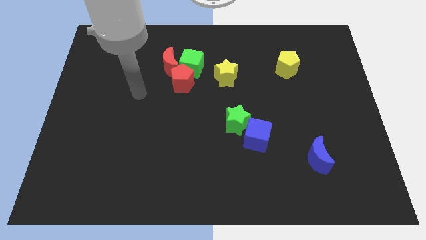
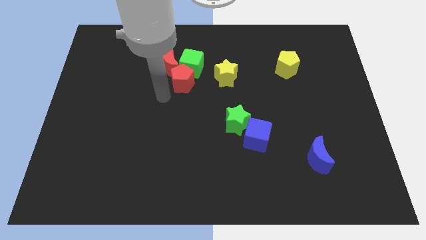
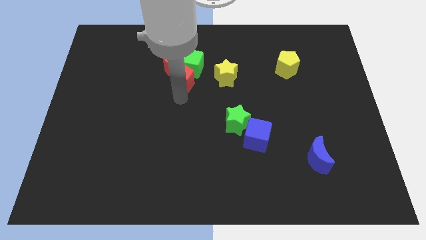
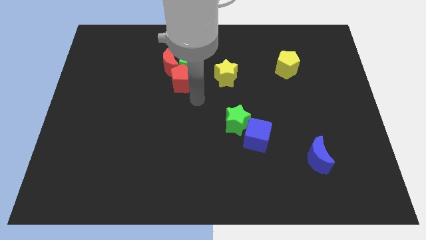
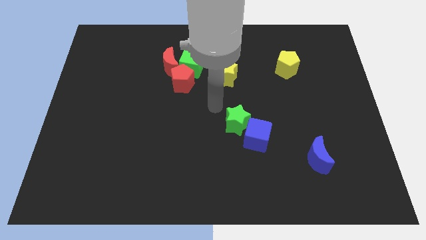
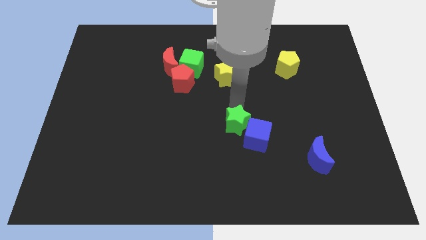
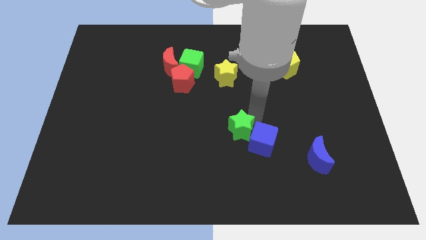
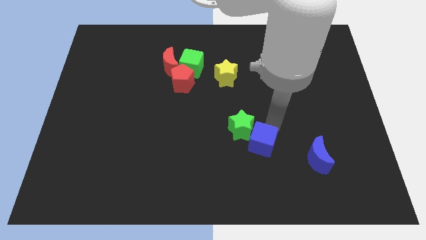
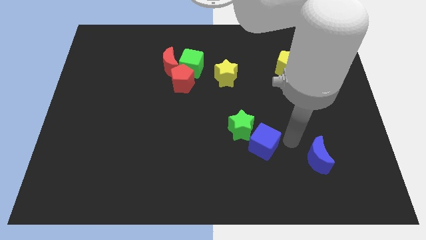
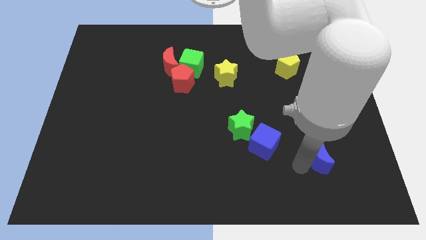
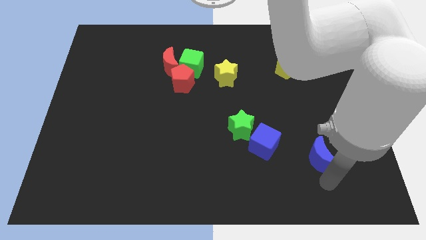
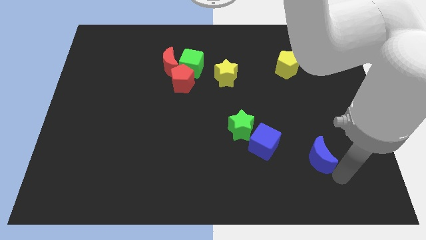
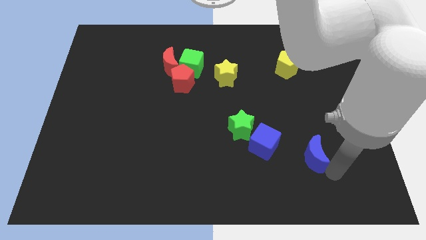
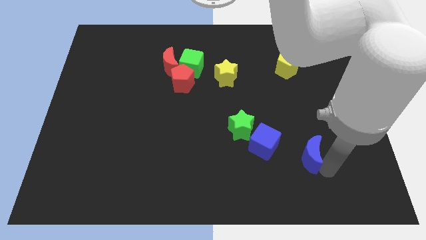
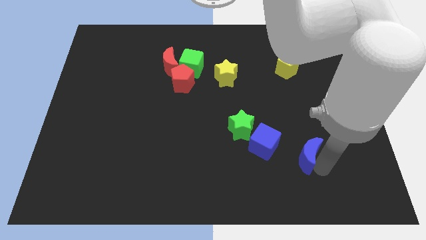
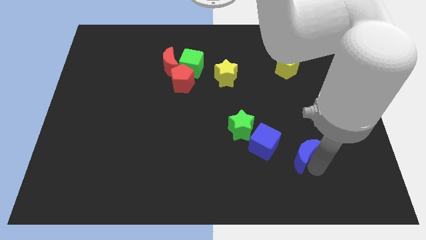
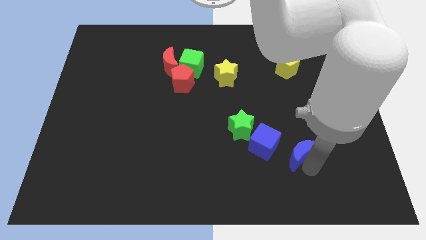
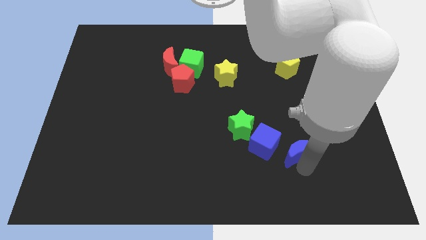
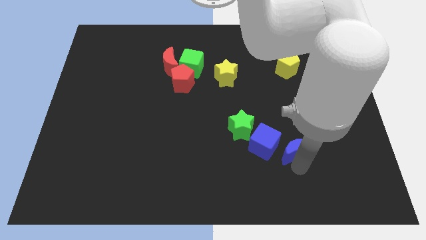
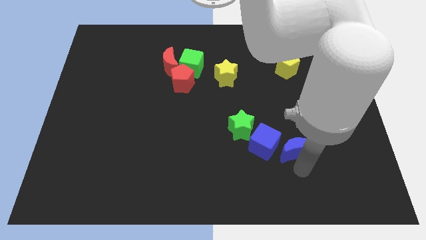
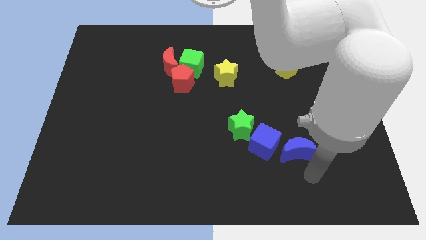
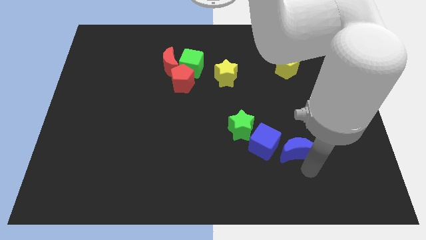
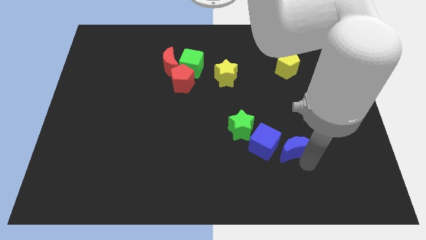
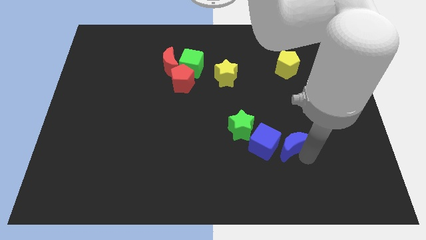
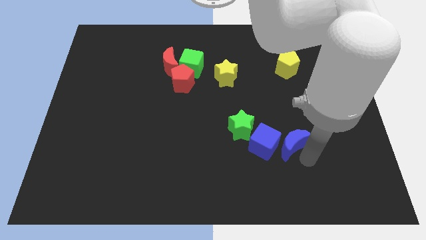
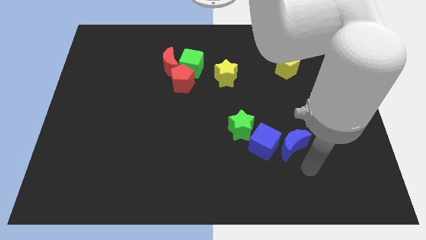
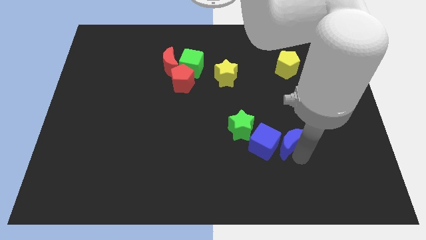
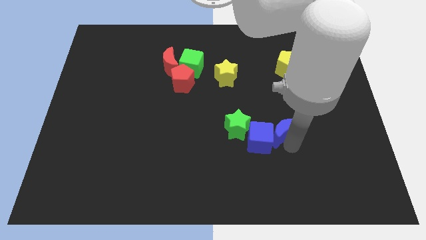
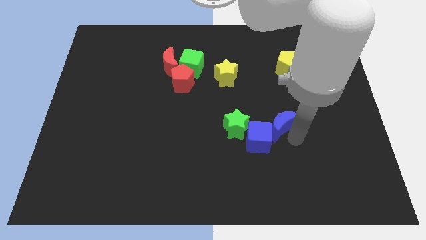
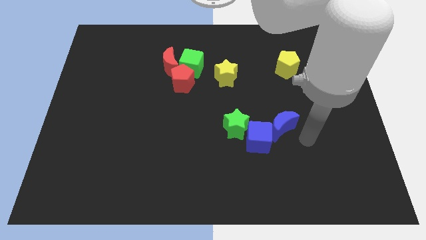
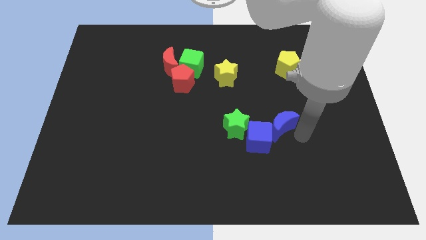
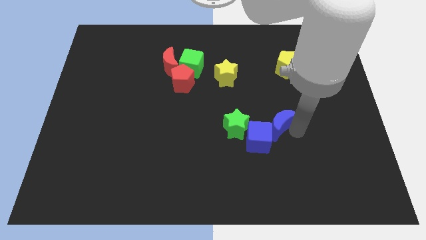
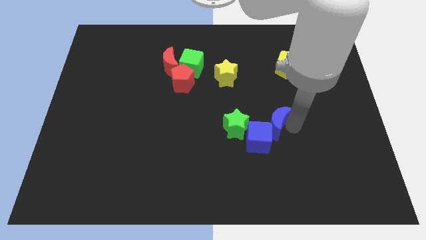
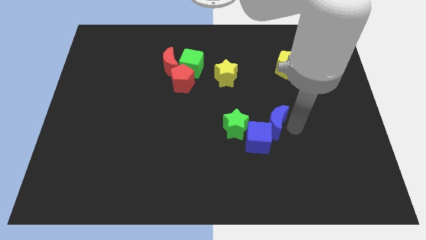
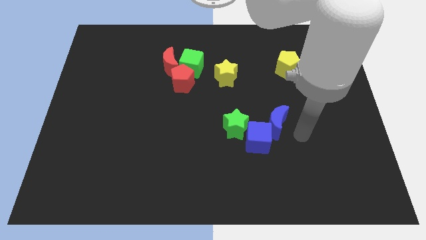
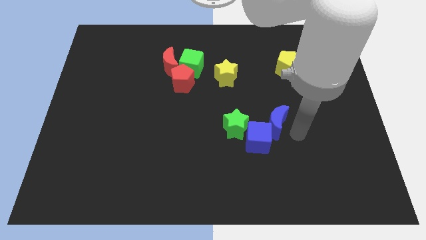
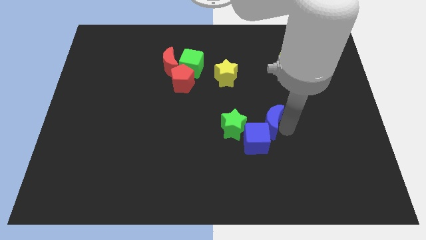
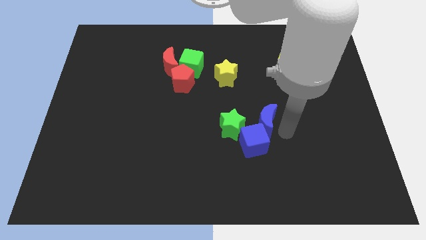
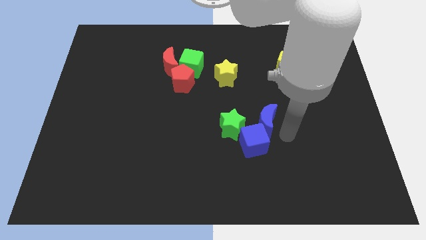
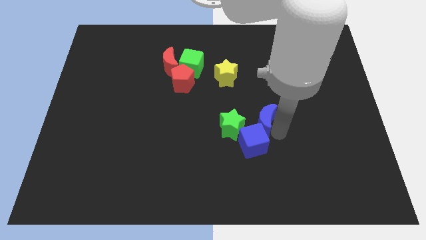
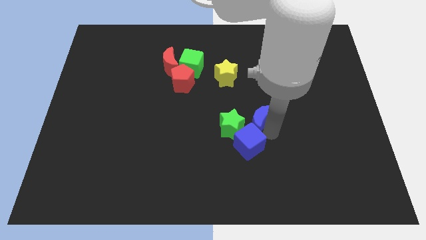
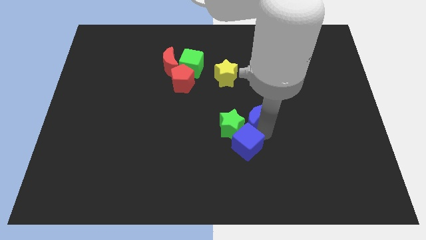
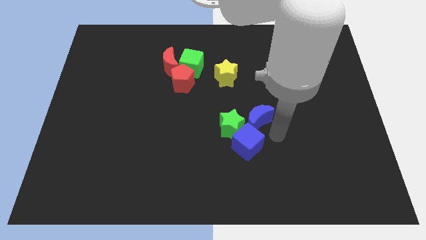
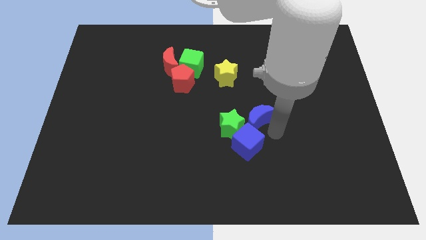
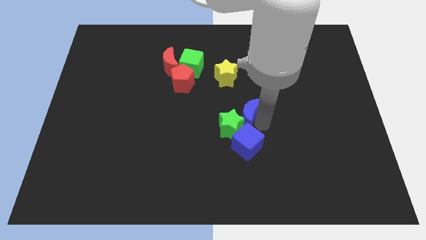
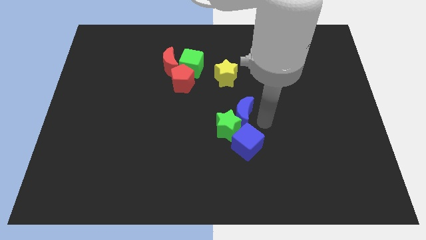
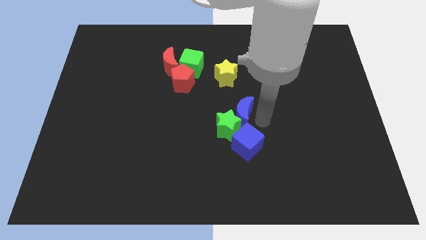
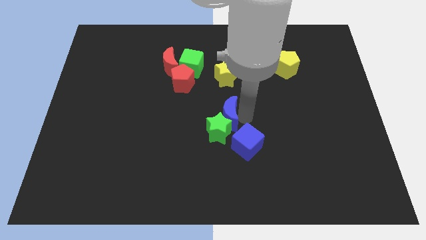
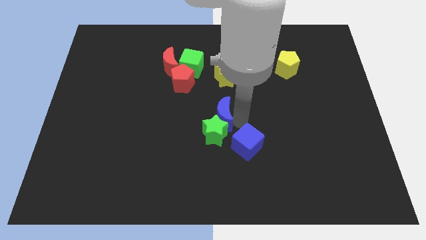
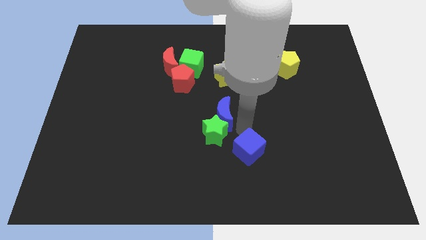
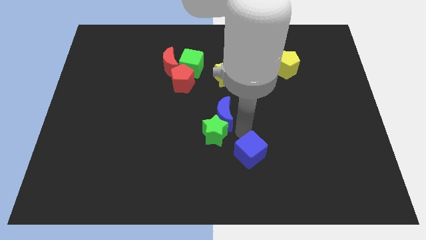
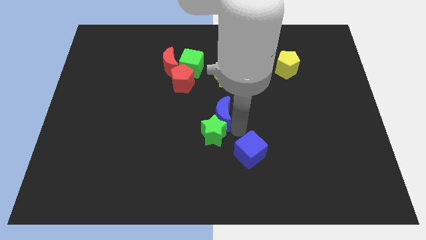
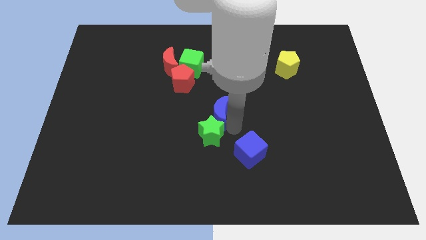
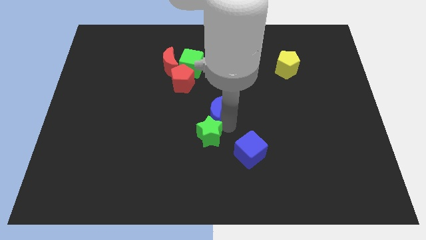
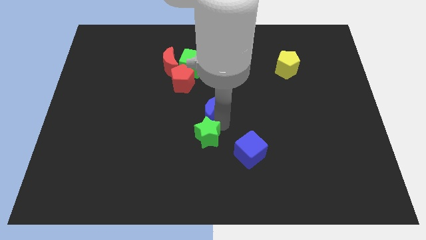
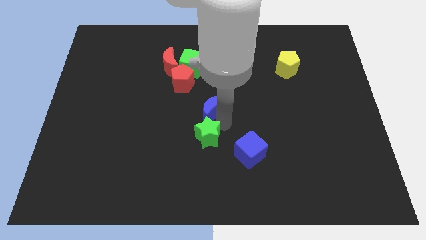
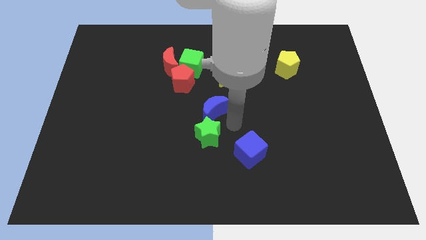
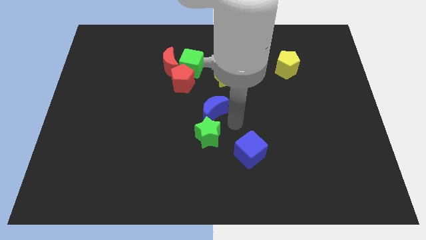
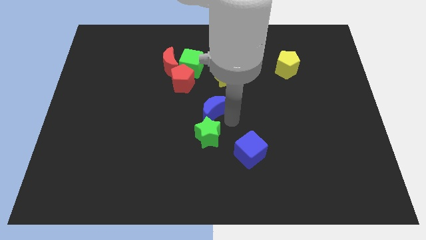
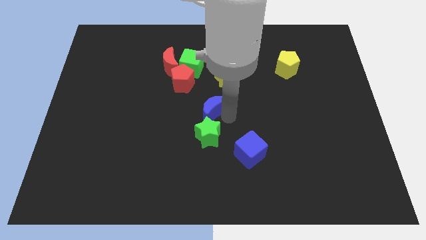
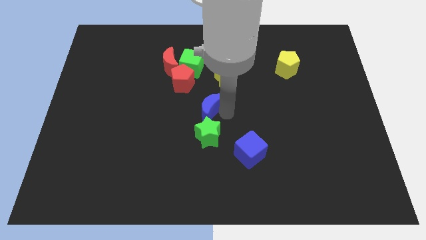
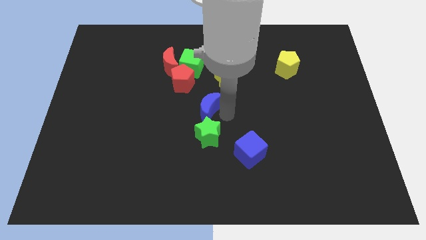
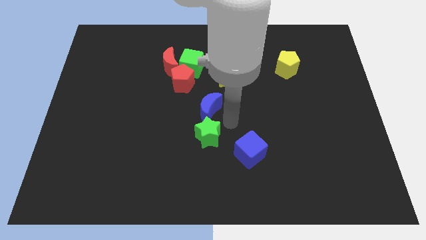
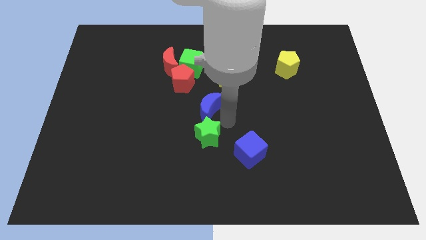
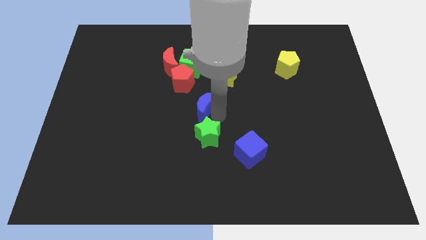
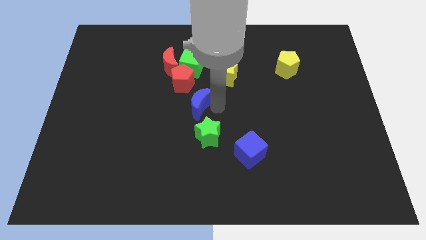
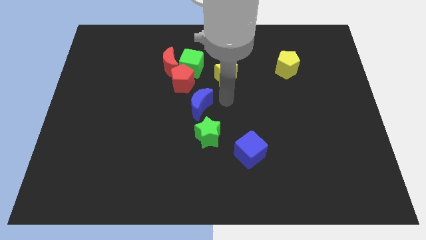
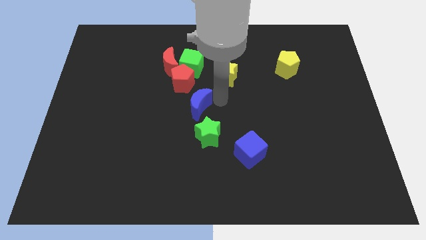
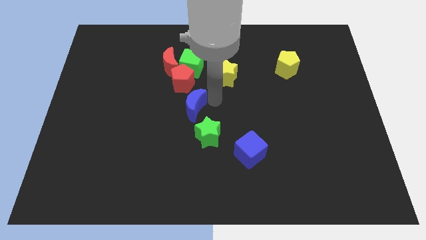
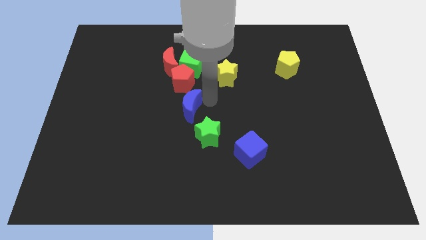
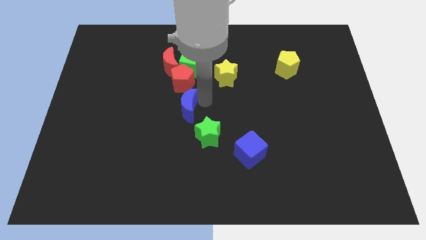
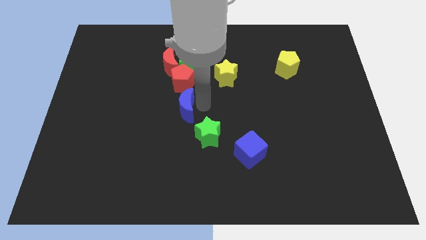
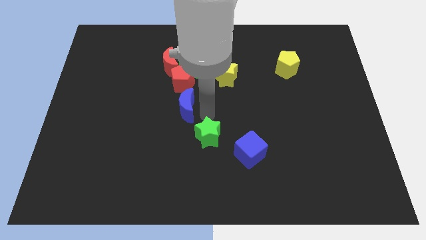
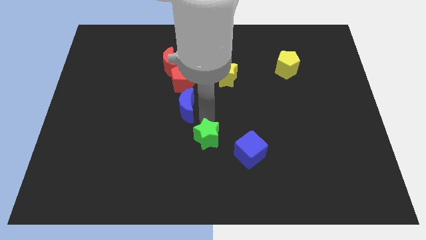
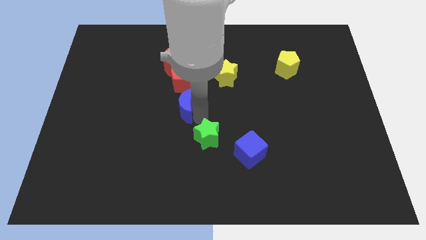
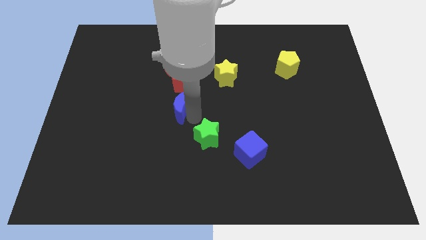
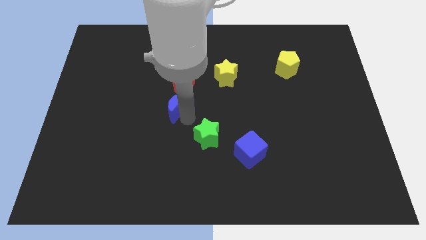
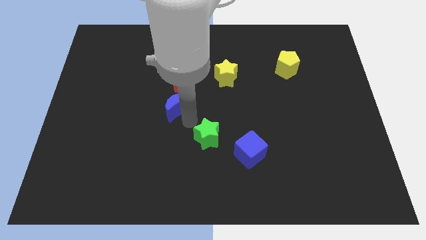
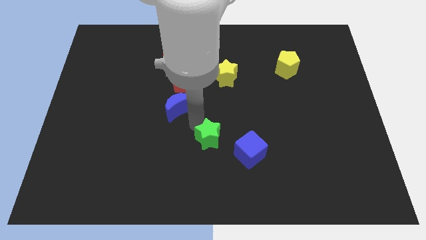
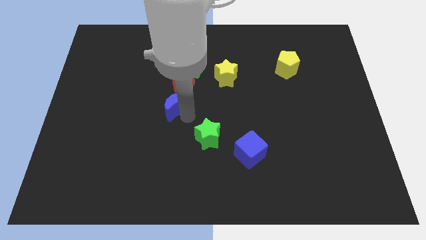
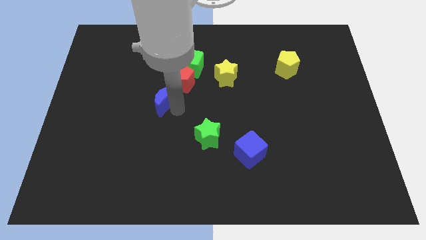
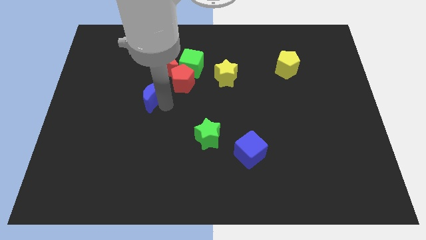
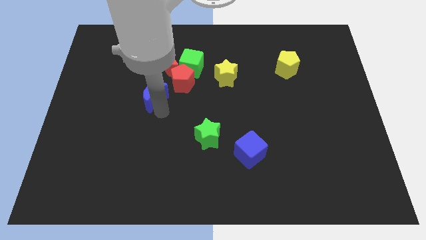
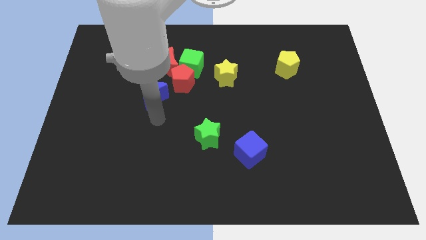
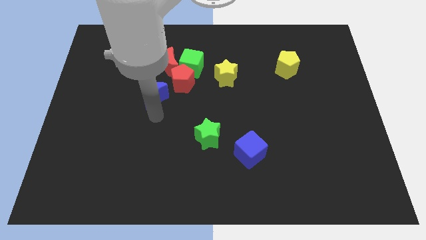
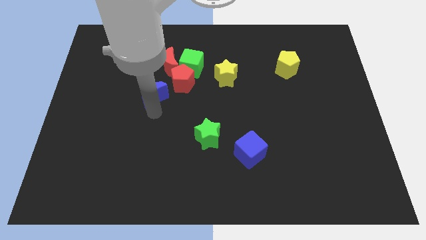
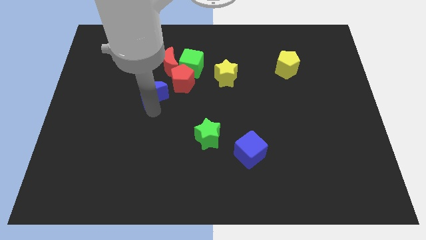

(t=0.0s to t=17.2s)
slide the blue moon to the left of the red pentagon
